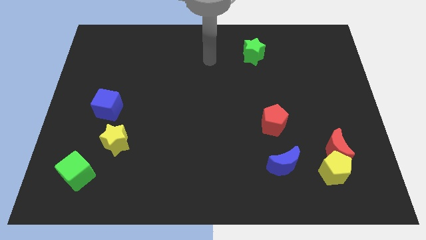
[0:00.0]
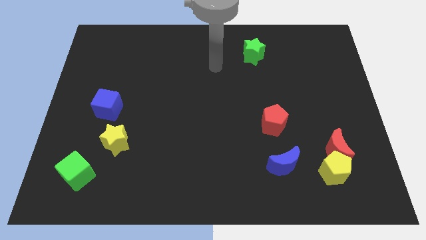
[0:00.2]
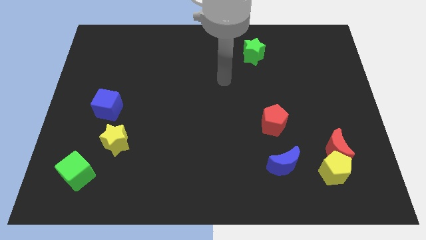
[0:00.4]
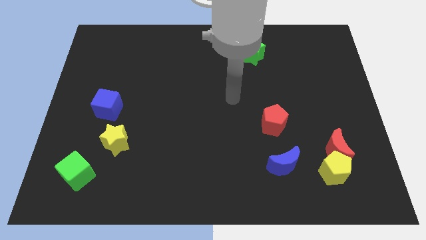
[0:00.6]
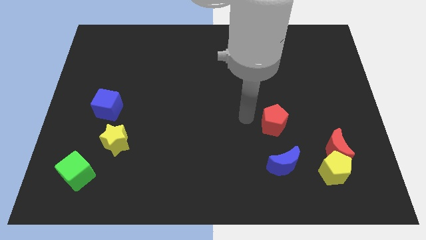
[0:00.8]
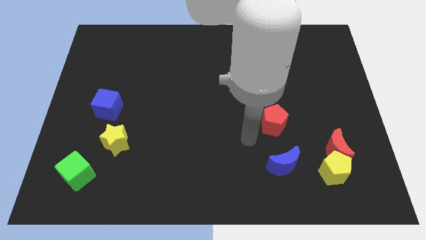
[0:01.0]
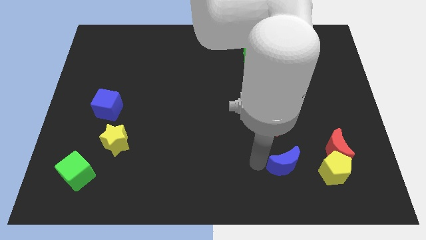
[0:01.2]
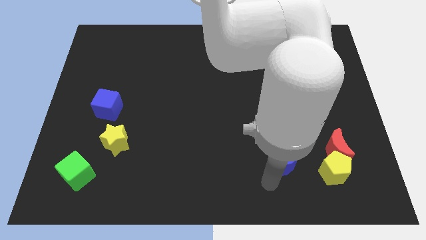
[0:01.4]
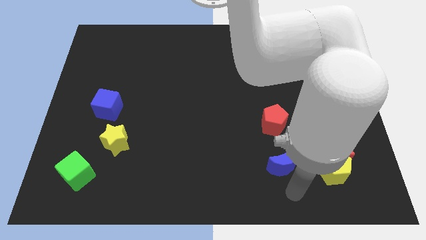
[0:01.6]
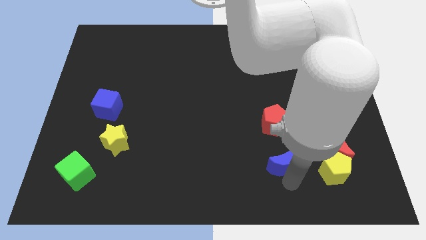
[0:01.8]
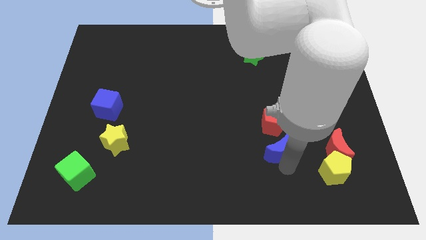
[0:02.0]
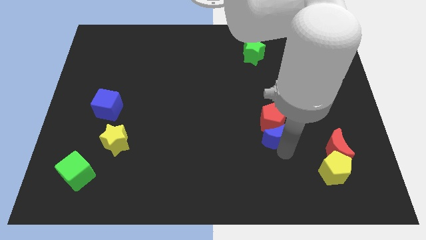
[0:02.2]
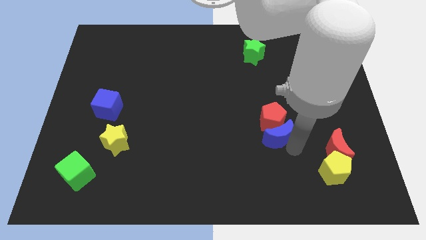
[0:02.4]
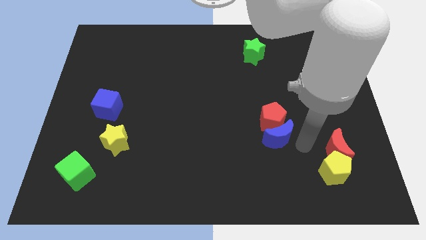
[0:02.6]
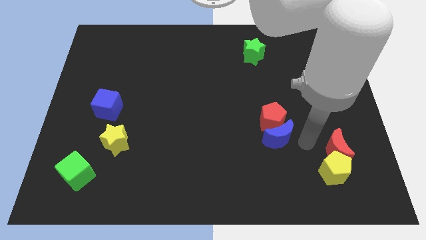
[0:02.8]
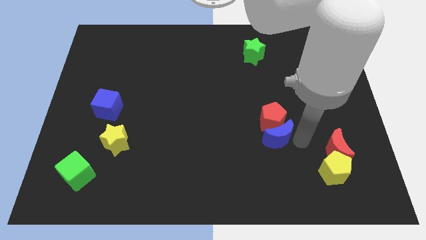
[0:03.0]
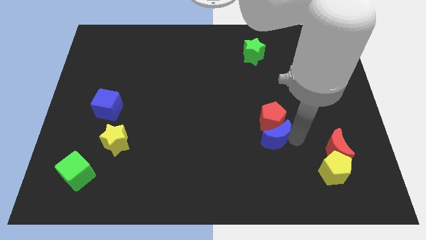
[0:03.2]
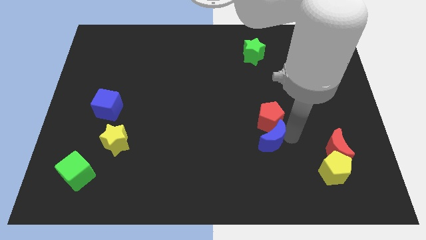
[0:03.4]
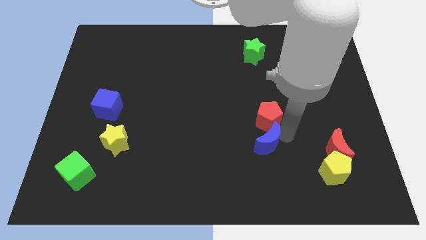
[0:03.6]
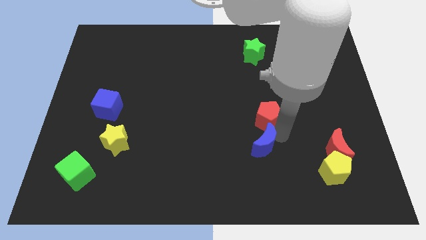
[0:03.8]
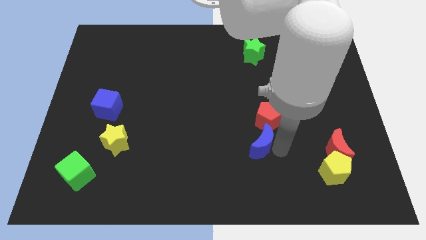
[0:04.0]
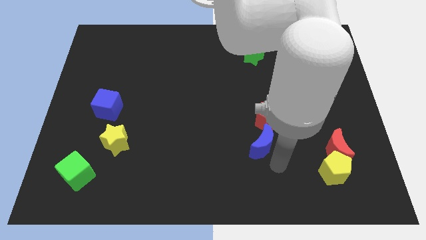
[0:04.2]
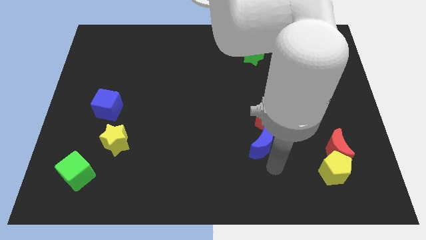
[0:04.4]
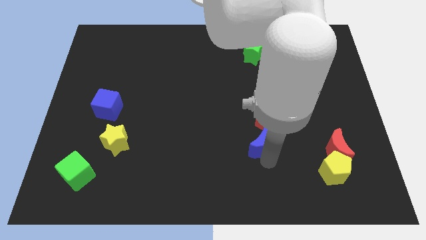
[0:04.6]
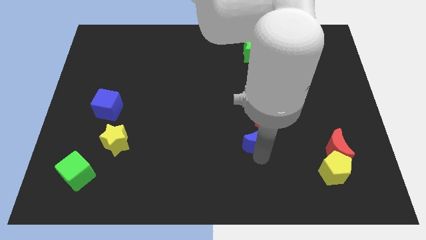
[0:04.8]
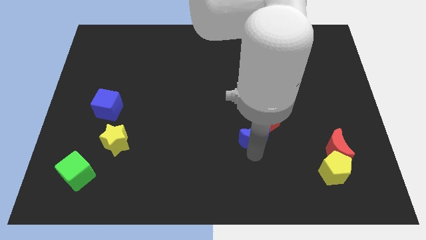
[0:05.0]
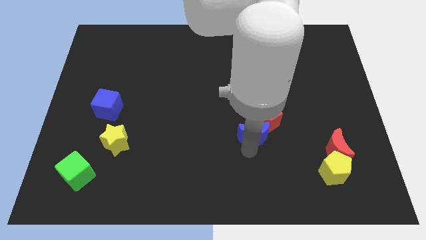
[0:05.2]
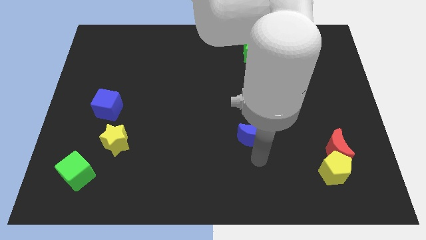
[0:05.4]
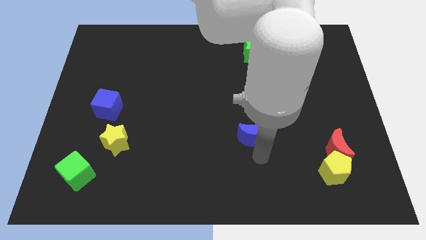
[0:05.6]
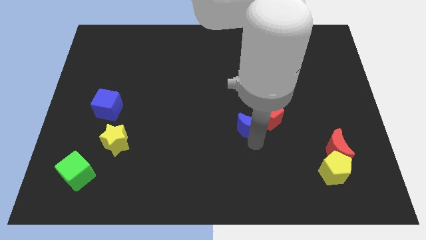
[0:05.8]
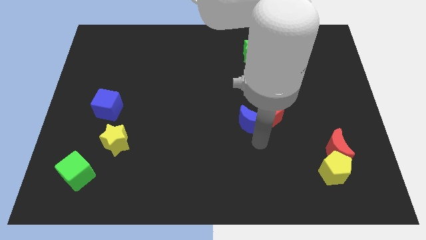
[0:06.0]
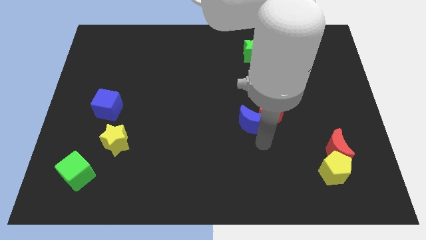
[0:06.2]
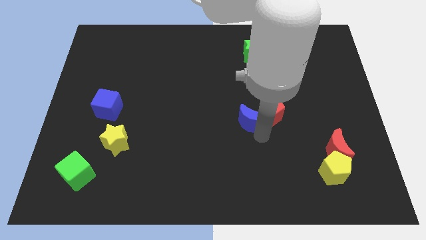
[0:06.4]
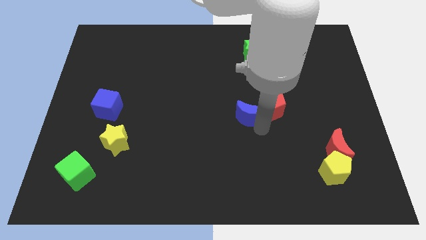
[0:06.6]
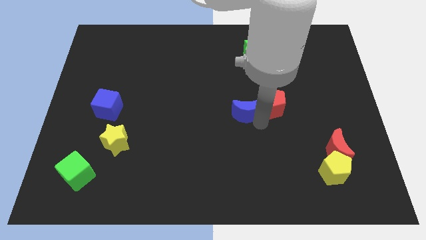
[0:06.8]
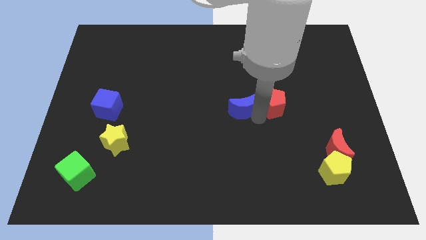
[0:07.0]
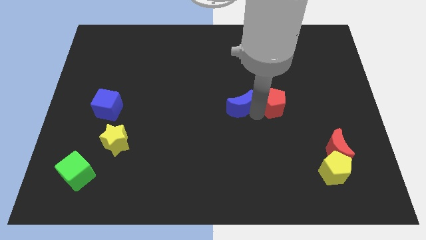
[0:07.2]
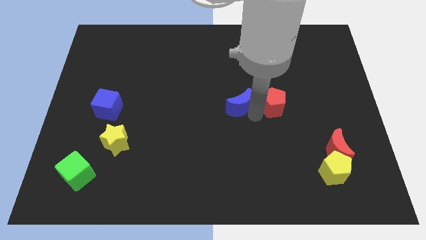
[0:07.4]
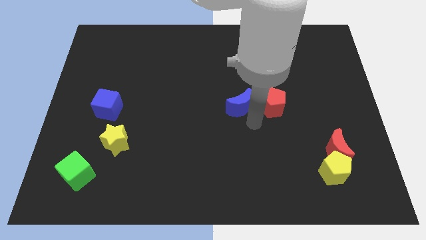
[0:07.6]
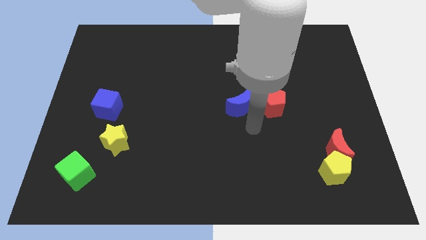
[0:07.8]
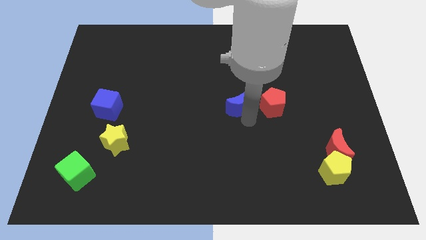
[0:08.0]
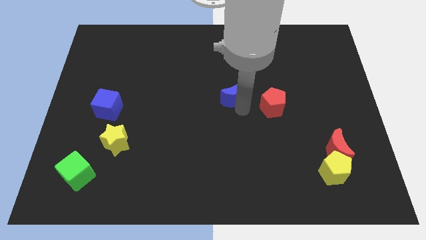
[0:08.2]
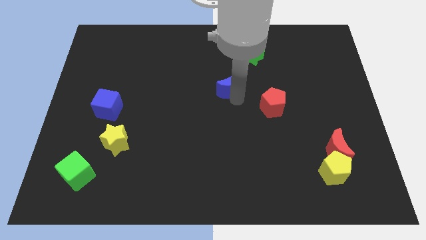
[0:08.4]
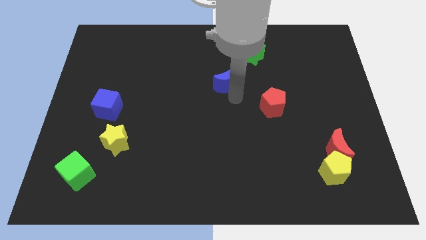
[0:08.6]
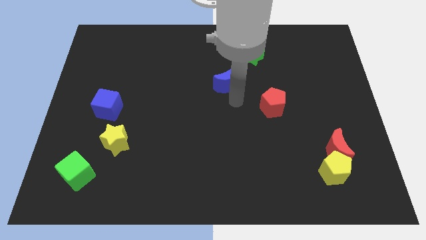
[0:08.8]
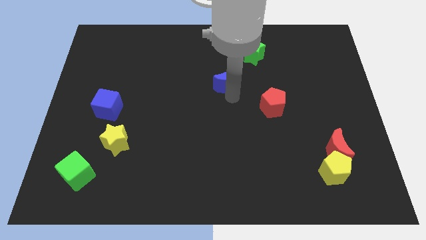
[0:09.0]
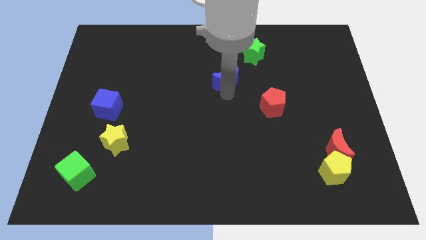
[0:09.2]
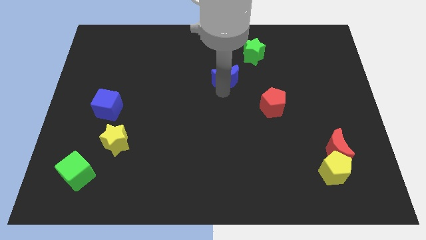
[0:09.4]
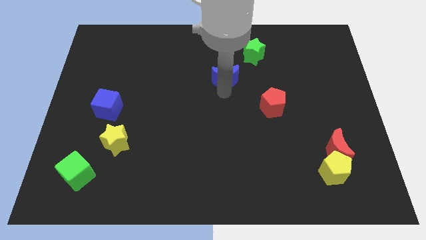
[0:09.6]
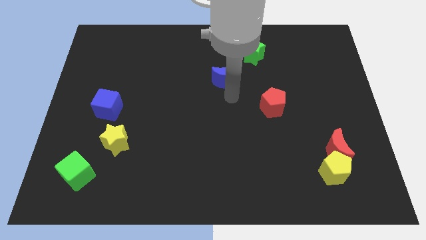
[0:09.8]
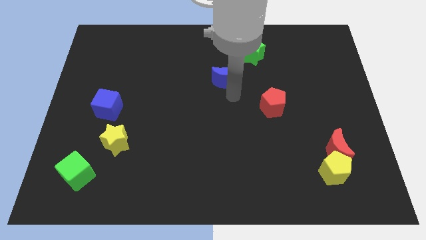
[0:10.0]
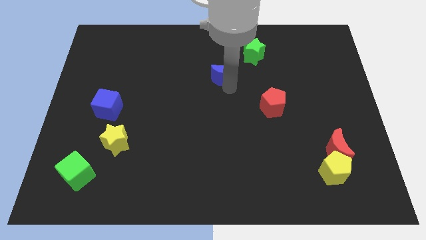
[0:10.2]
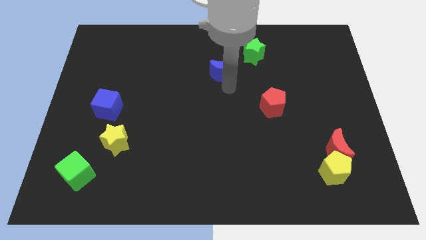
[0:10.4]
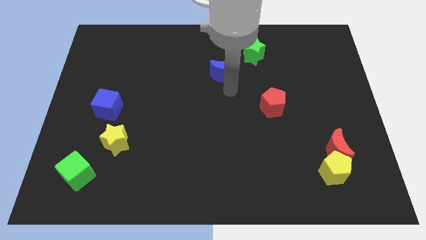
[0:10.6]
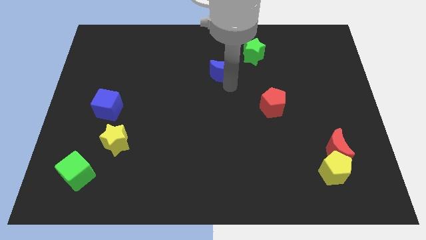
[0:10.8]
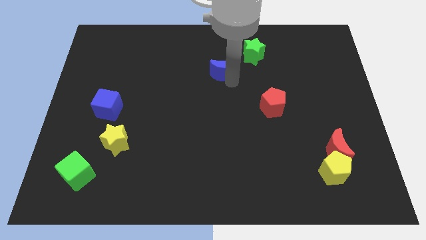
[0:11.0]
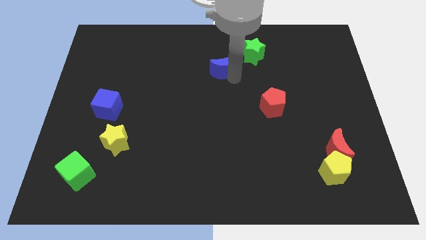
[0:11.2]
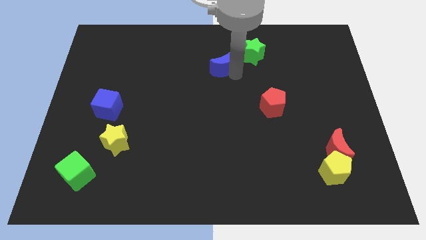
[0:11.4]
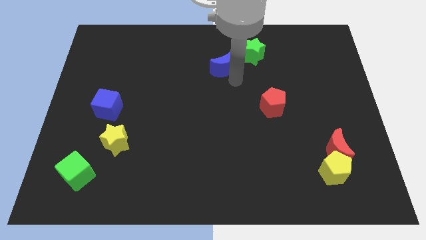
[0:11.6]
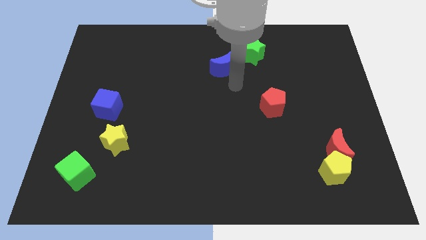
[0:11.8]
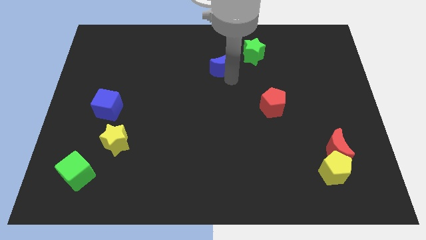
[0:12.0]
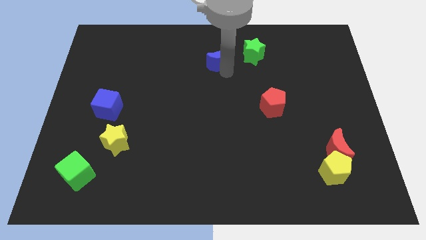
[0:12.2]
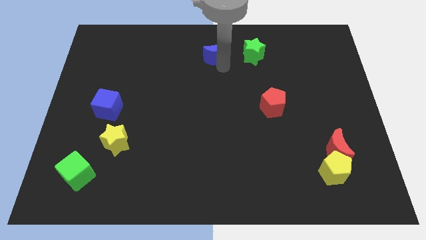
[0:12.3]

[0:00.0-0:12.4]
move the blue moon to the top side

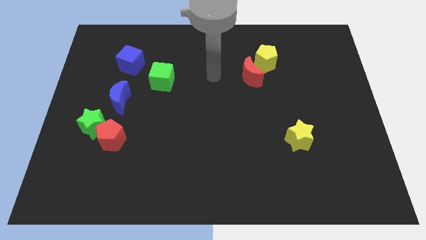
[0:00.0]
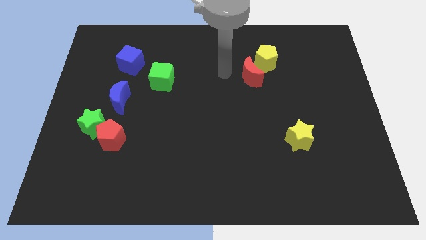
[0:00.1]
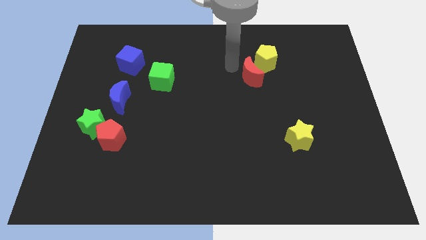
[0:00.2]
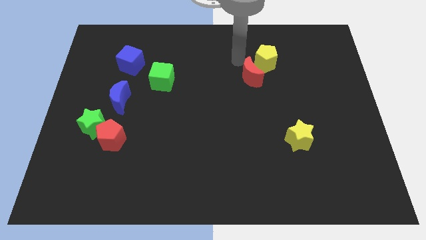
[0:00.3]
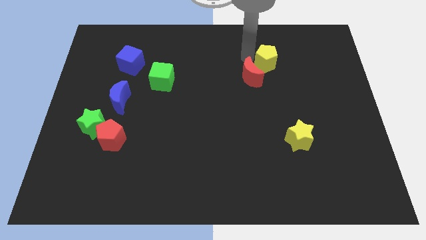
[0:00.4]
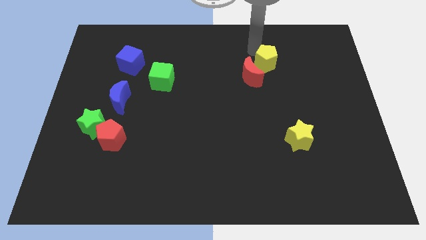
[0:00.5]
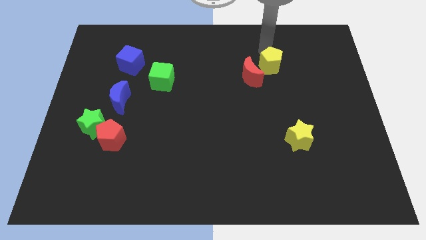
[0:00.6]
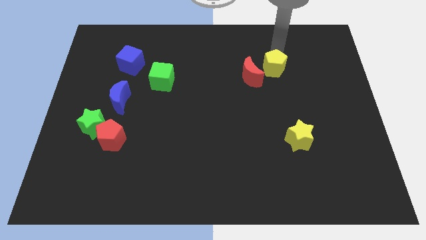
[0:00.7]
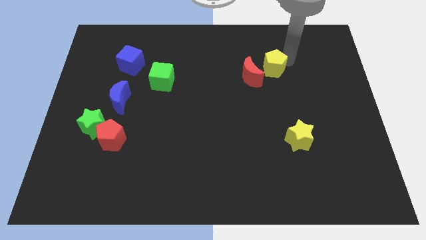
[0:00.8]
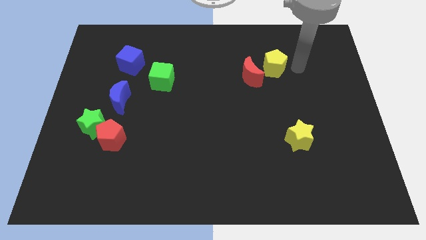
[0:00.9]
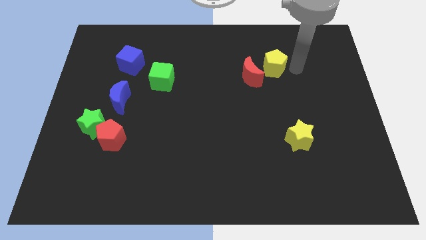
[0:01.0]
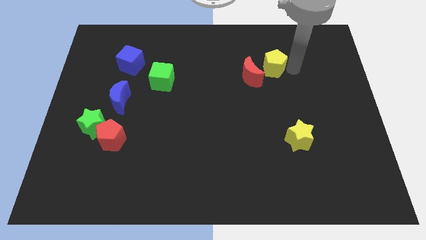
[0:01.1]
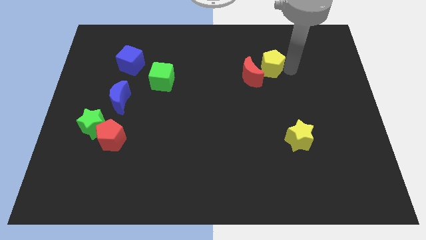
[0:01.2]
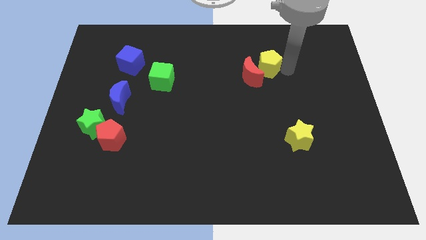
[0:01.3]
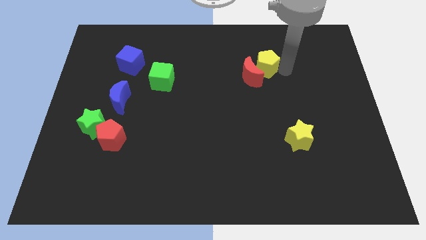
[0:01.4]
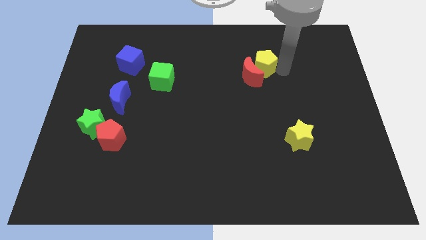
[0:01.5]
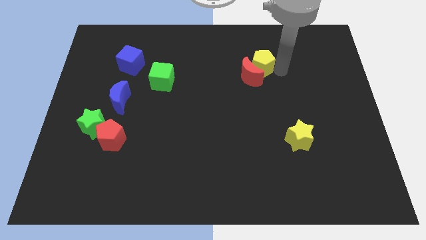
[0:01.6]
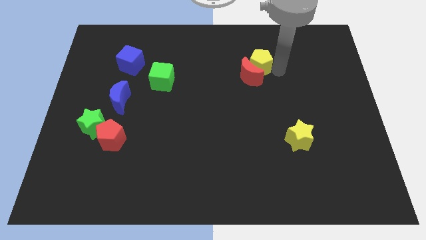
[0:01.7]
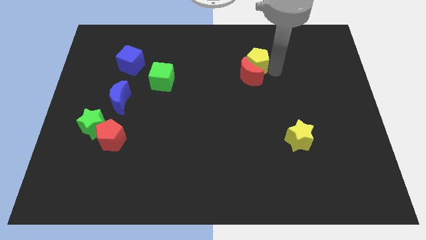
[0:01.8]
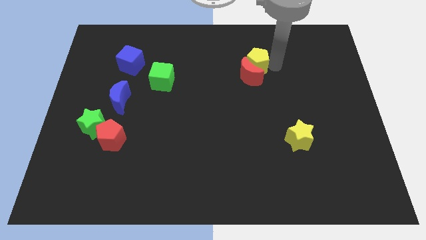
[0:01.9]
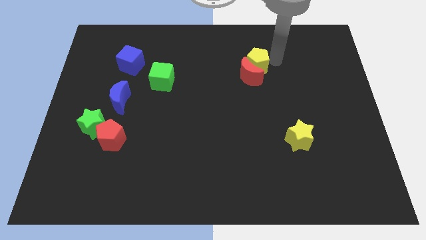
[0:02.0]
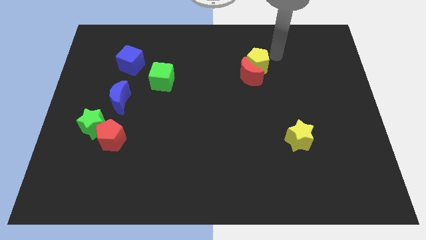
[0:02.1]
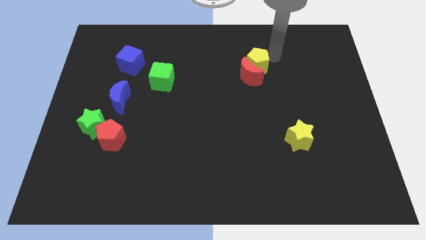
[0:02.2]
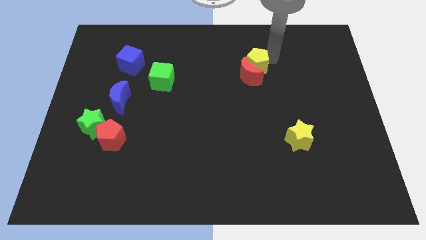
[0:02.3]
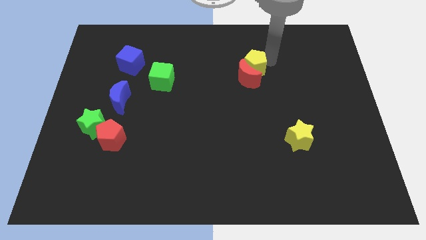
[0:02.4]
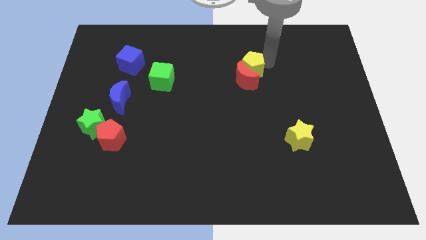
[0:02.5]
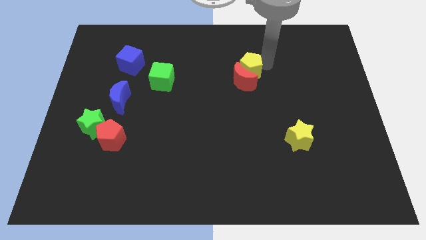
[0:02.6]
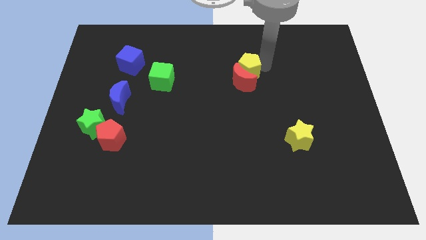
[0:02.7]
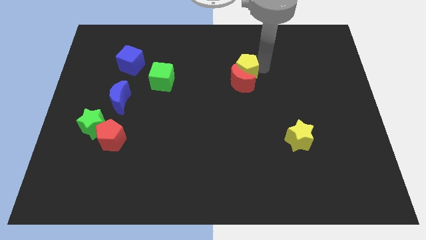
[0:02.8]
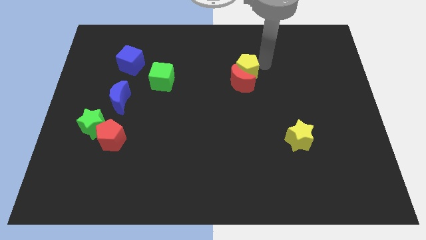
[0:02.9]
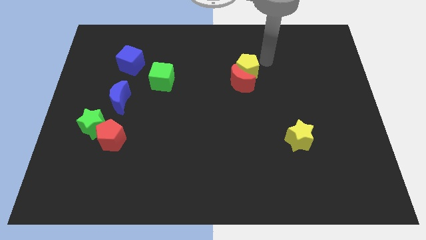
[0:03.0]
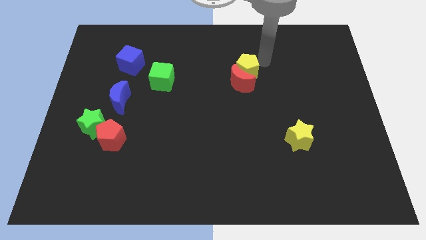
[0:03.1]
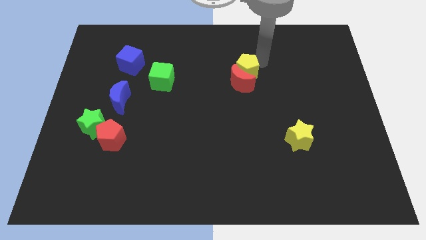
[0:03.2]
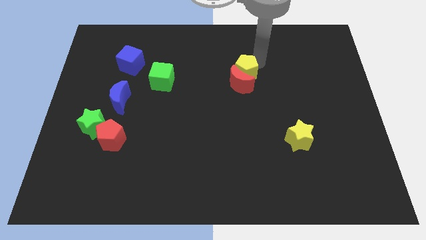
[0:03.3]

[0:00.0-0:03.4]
move the yellow pentagon to the center
